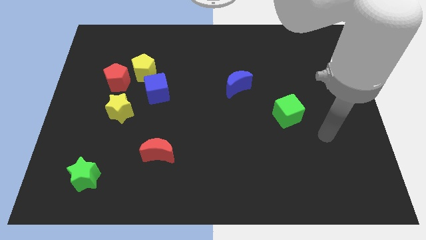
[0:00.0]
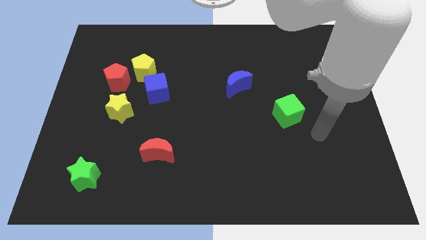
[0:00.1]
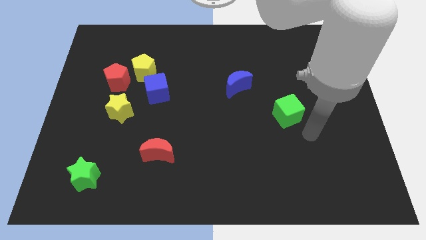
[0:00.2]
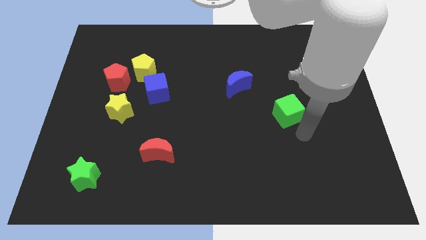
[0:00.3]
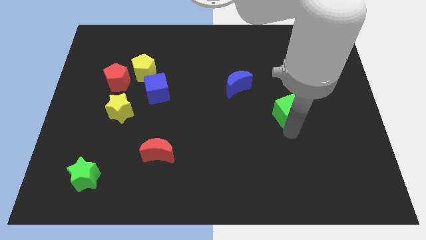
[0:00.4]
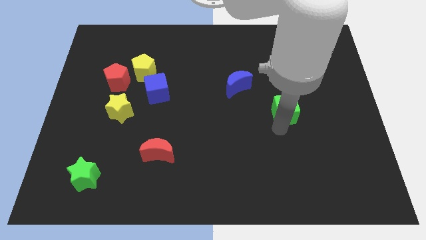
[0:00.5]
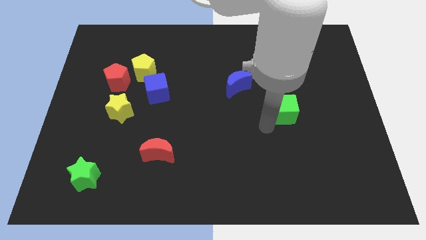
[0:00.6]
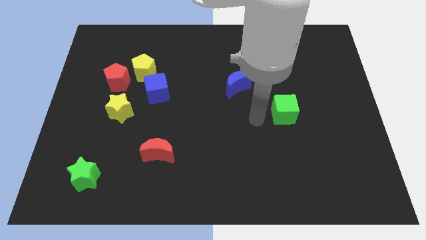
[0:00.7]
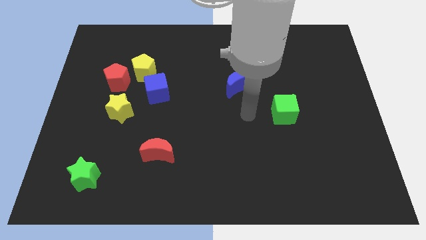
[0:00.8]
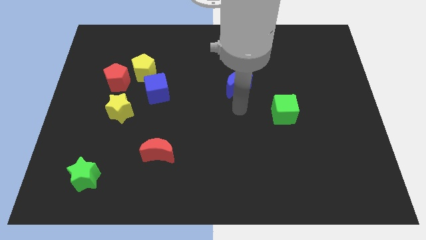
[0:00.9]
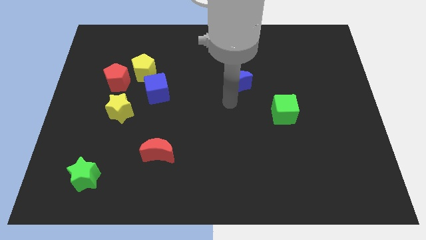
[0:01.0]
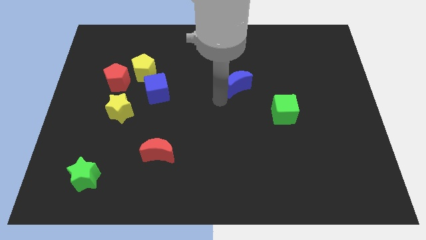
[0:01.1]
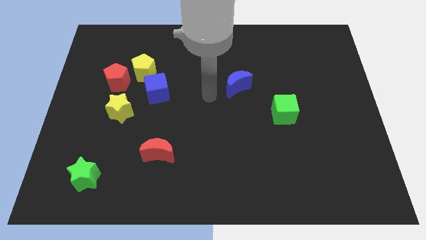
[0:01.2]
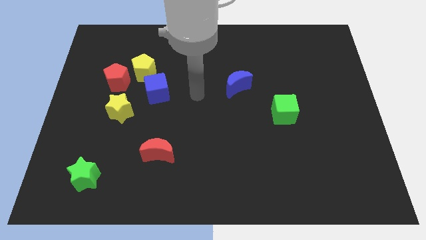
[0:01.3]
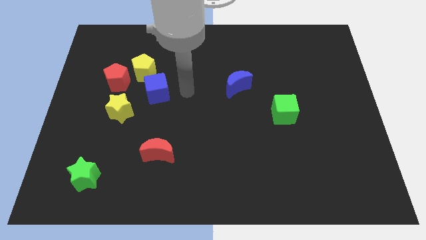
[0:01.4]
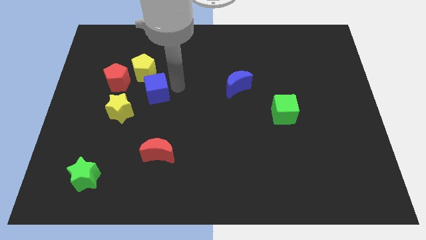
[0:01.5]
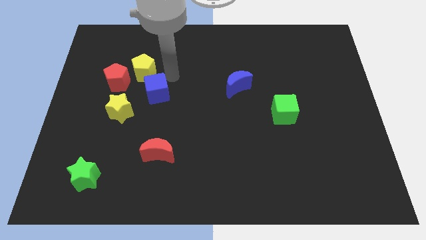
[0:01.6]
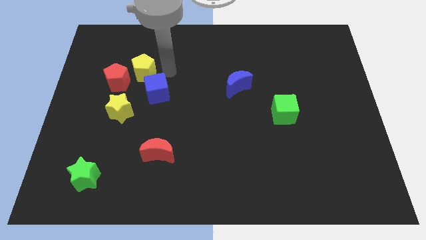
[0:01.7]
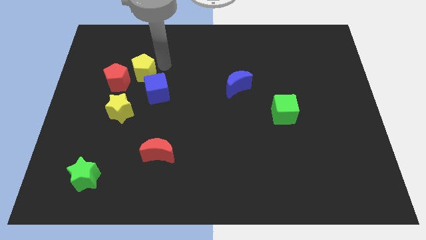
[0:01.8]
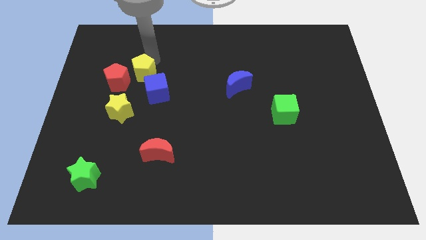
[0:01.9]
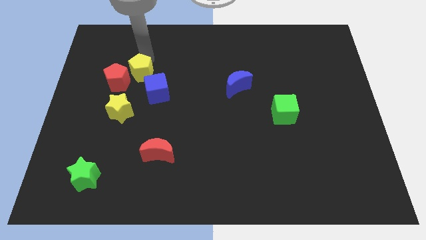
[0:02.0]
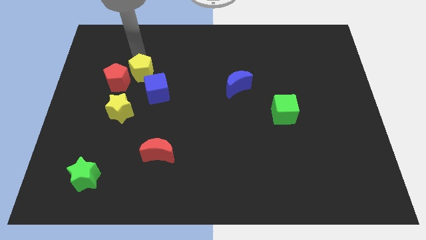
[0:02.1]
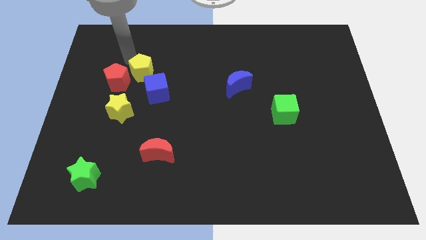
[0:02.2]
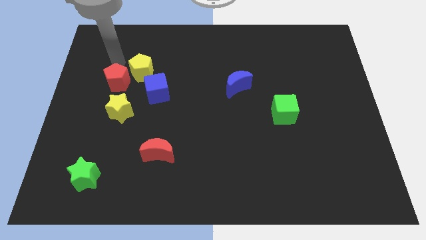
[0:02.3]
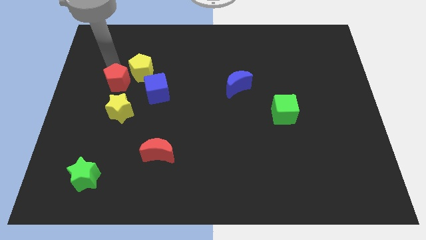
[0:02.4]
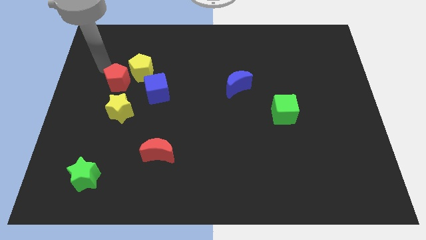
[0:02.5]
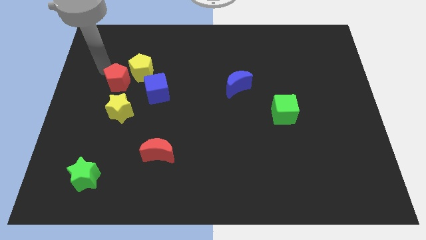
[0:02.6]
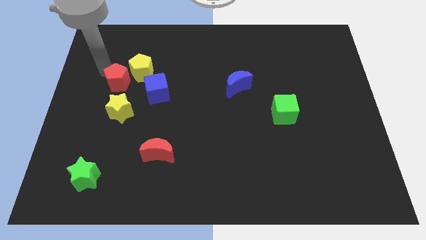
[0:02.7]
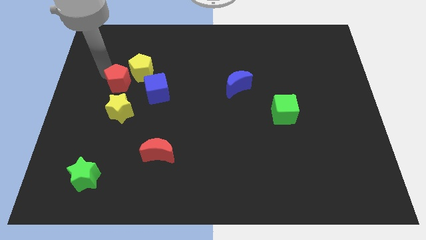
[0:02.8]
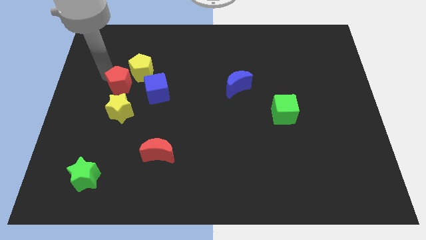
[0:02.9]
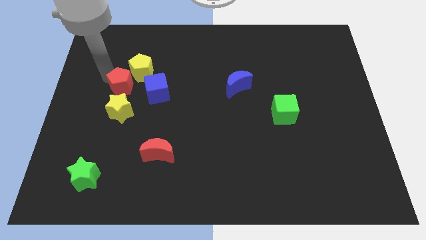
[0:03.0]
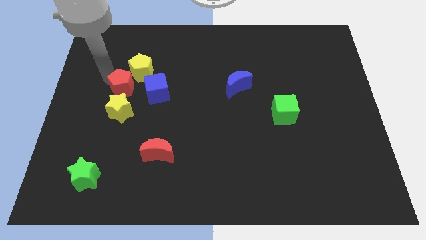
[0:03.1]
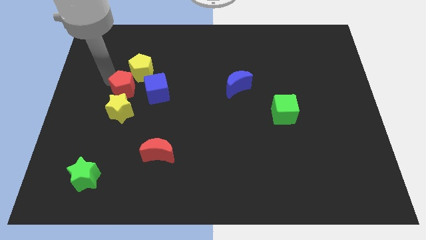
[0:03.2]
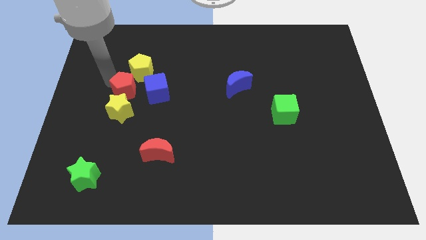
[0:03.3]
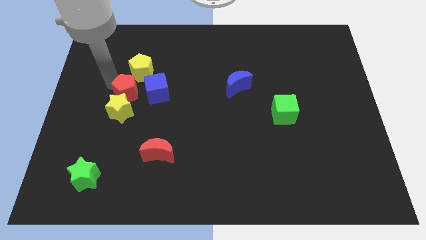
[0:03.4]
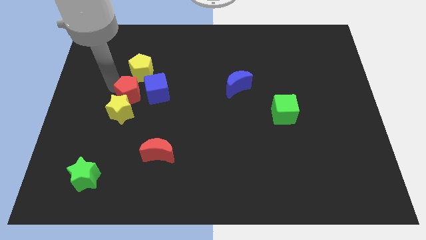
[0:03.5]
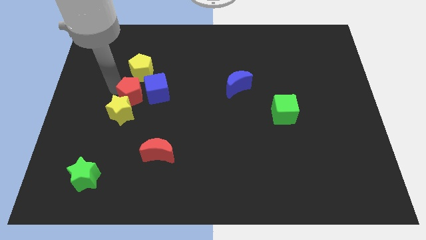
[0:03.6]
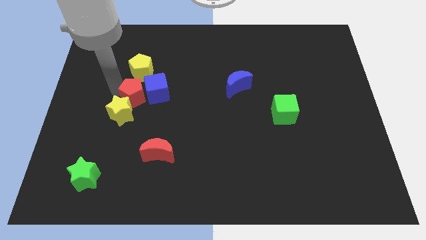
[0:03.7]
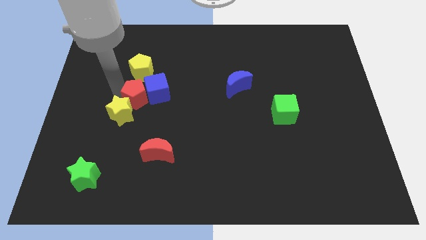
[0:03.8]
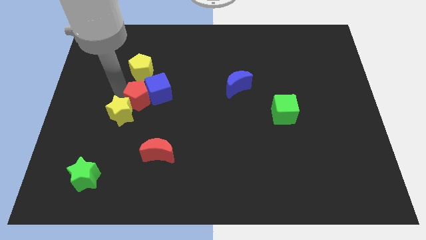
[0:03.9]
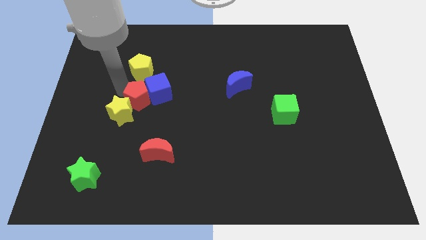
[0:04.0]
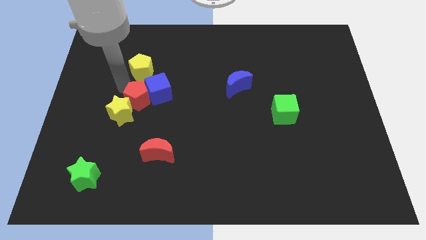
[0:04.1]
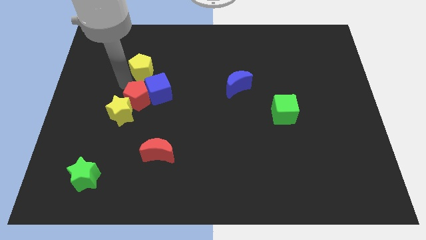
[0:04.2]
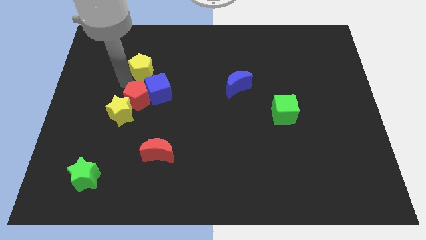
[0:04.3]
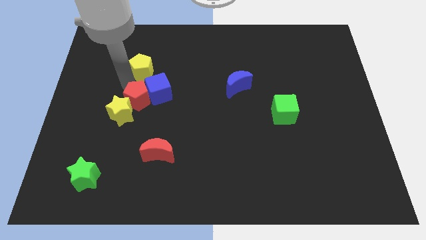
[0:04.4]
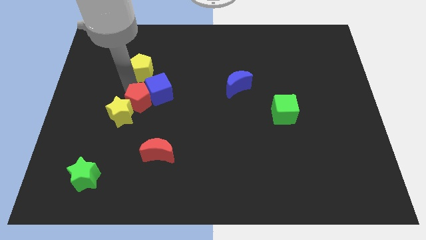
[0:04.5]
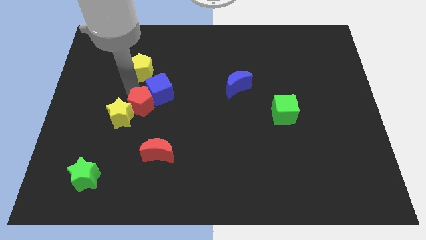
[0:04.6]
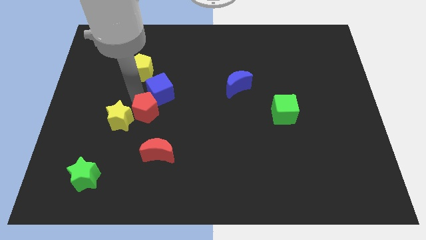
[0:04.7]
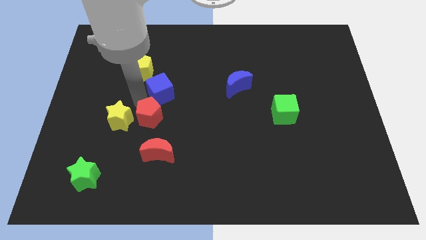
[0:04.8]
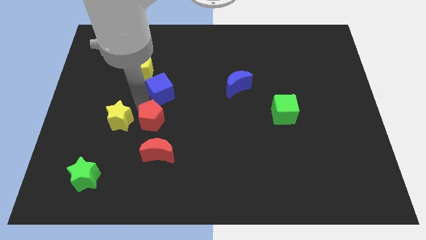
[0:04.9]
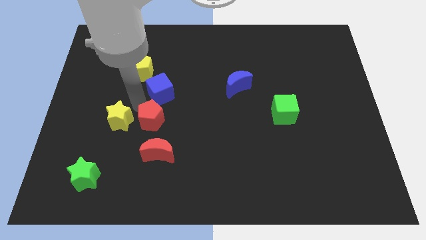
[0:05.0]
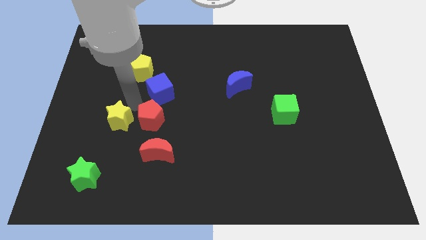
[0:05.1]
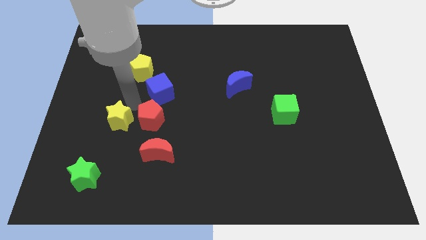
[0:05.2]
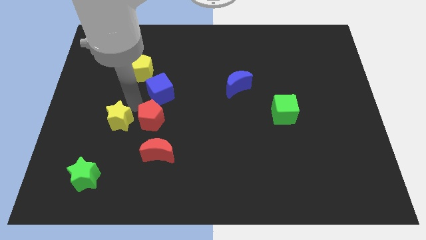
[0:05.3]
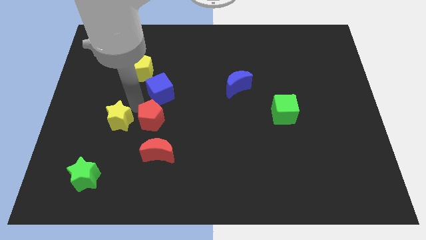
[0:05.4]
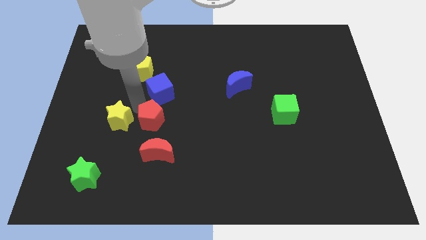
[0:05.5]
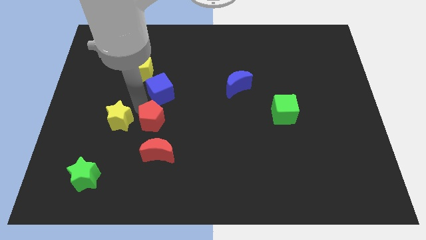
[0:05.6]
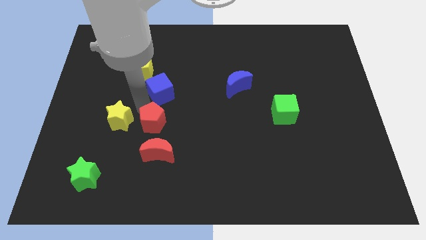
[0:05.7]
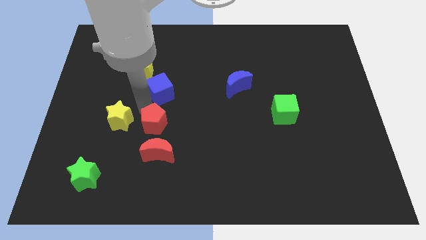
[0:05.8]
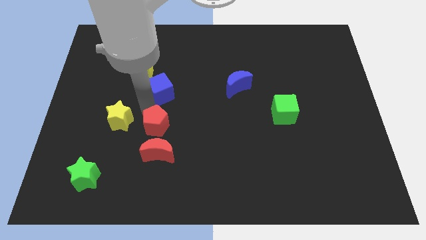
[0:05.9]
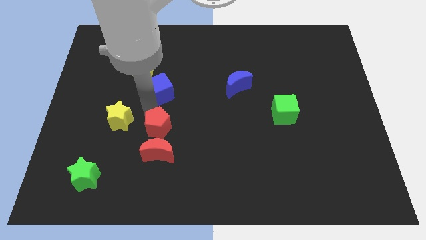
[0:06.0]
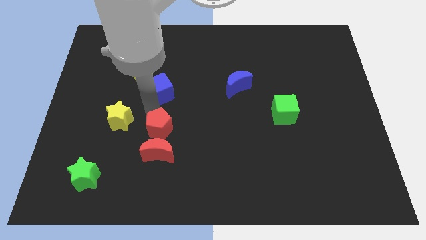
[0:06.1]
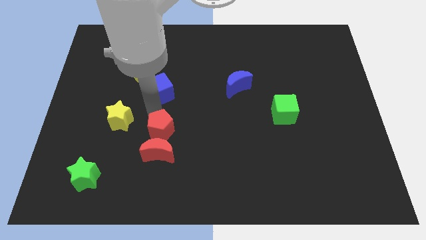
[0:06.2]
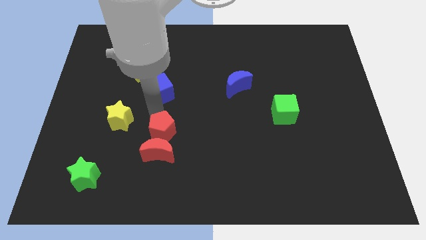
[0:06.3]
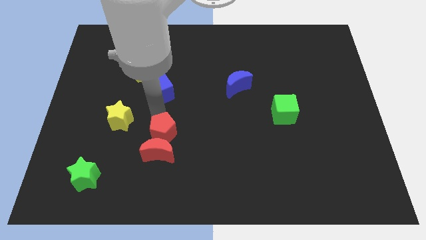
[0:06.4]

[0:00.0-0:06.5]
slide the red pentagon downwards and then right

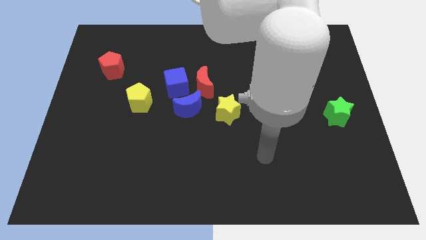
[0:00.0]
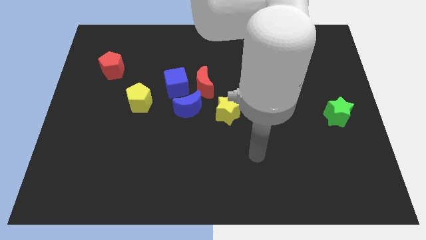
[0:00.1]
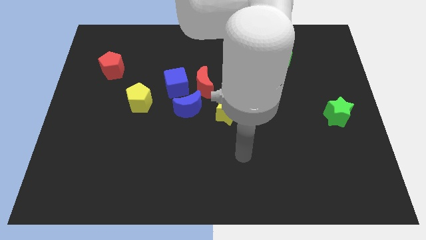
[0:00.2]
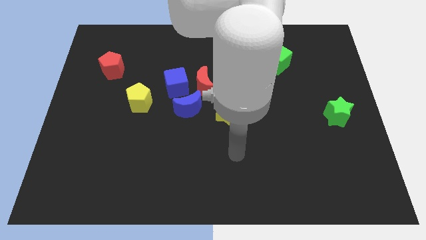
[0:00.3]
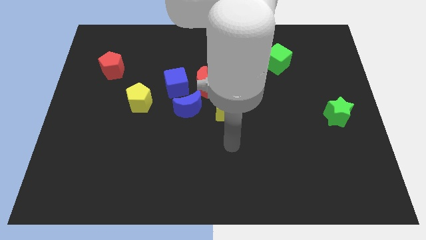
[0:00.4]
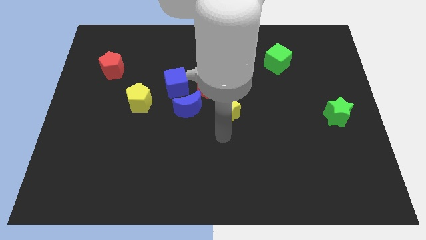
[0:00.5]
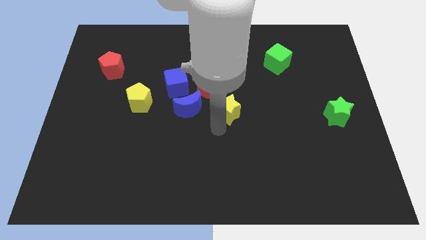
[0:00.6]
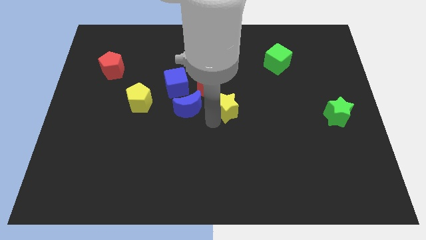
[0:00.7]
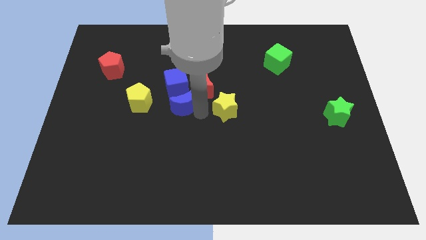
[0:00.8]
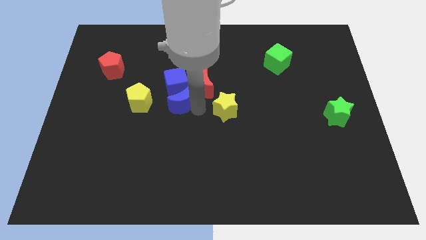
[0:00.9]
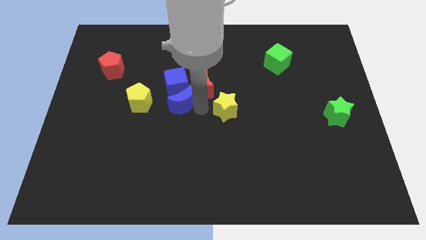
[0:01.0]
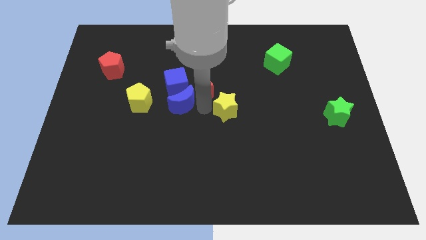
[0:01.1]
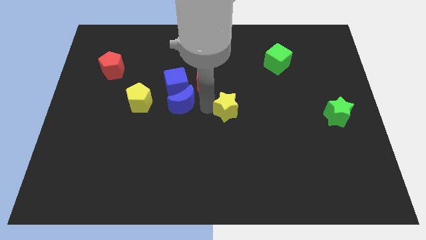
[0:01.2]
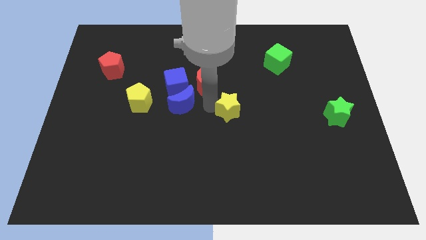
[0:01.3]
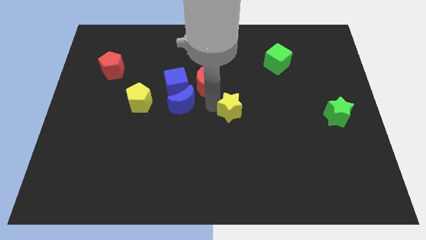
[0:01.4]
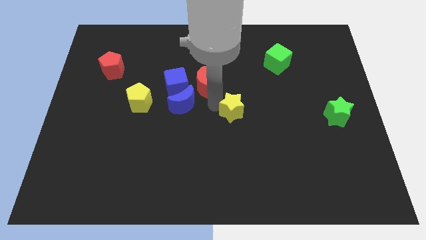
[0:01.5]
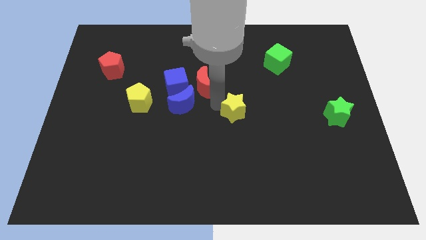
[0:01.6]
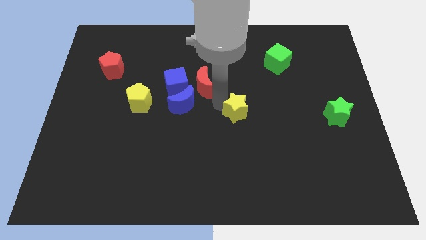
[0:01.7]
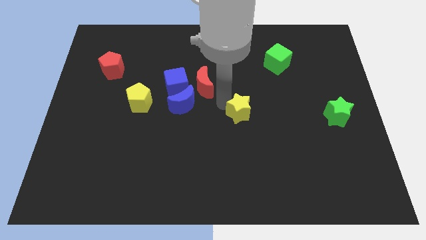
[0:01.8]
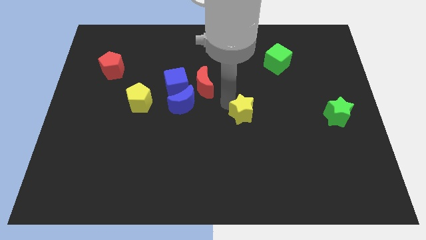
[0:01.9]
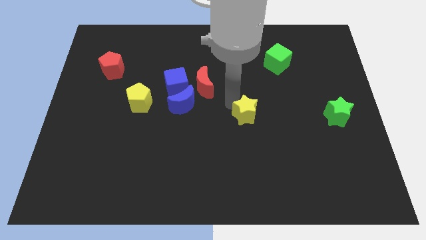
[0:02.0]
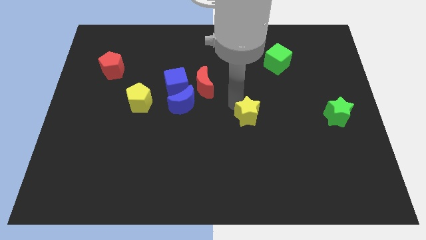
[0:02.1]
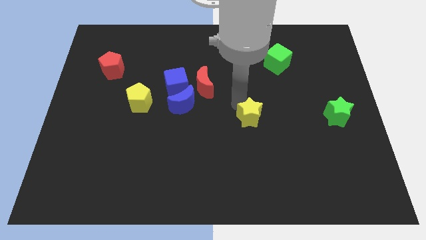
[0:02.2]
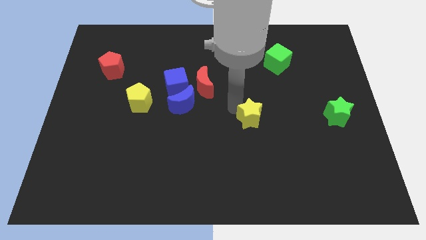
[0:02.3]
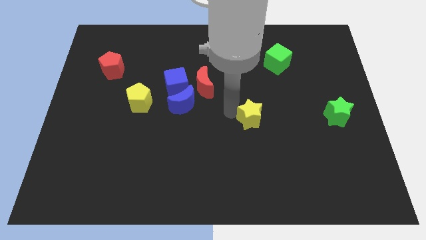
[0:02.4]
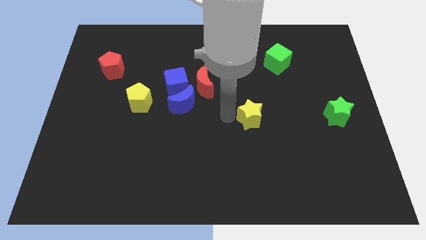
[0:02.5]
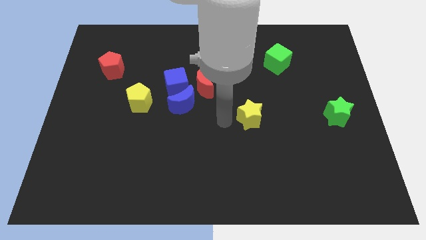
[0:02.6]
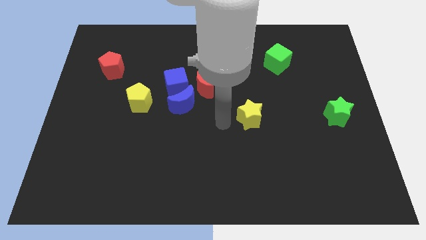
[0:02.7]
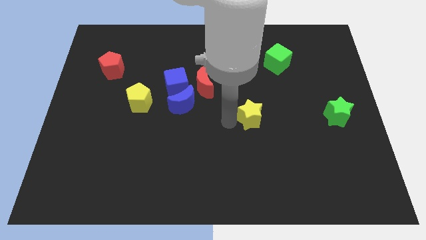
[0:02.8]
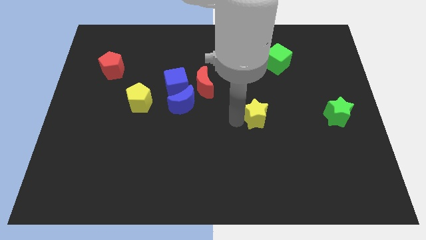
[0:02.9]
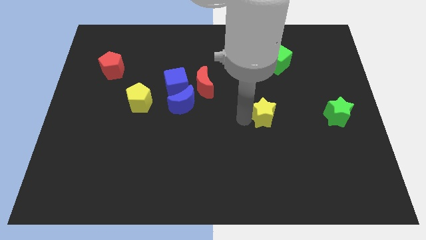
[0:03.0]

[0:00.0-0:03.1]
push the yellow star a little to the right
